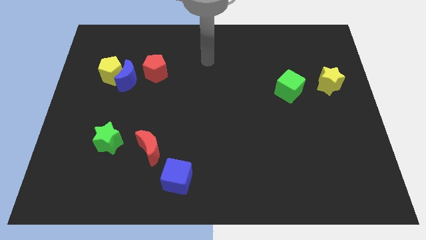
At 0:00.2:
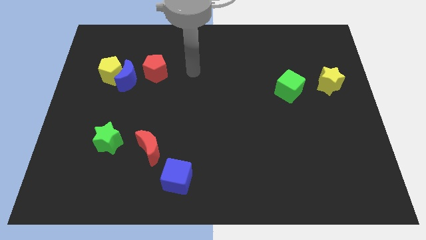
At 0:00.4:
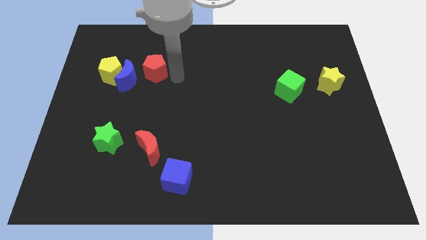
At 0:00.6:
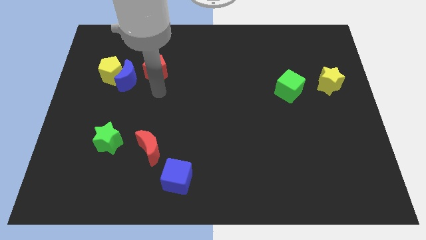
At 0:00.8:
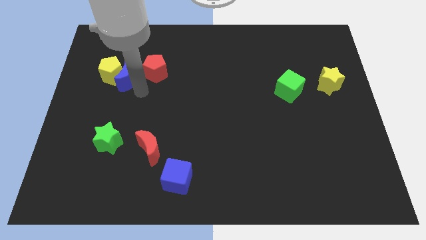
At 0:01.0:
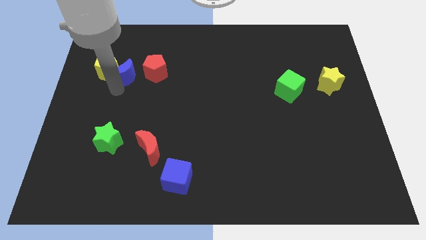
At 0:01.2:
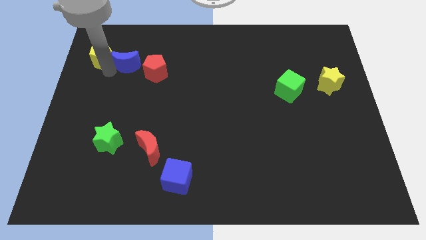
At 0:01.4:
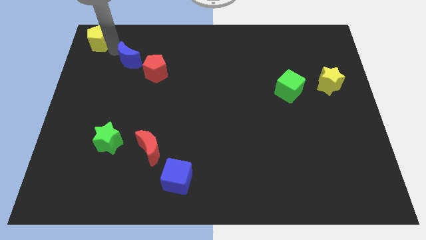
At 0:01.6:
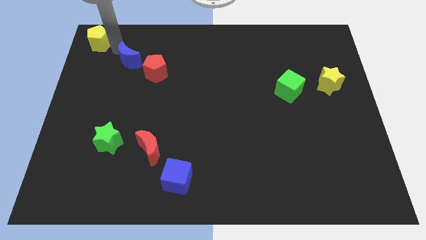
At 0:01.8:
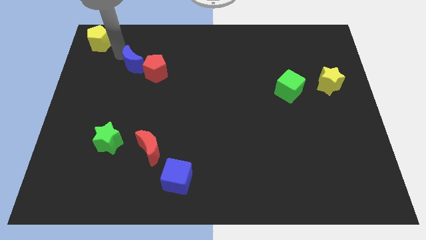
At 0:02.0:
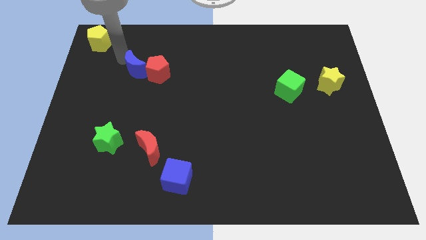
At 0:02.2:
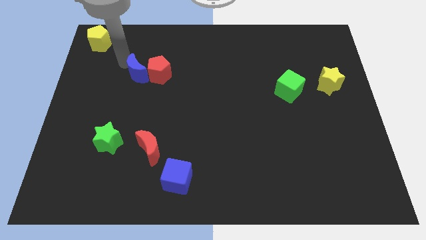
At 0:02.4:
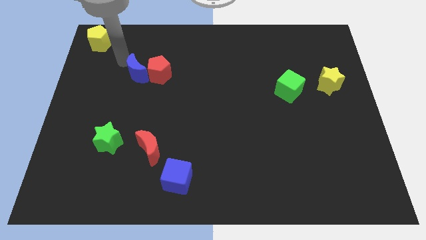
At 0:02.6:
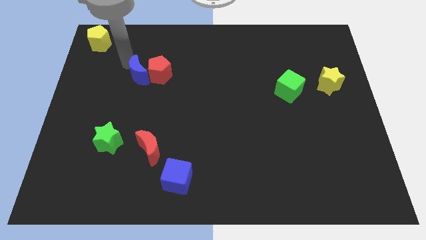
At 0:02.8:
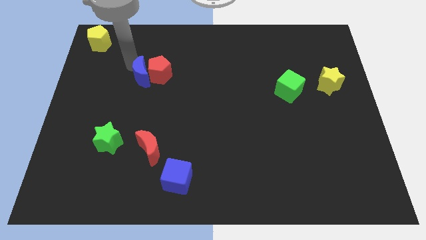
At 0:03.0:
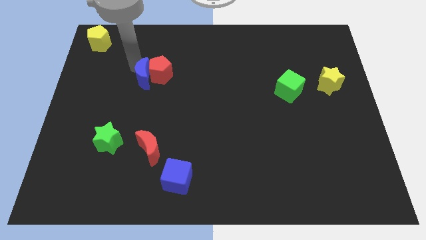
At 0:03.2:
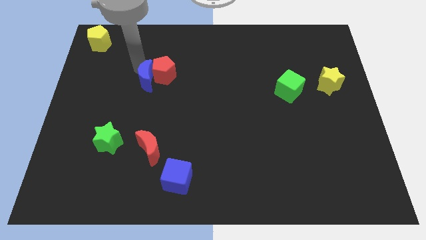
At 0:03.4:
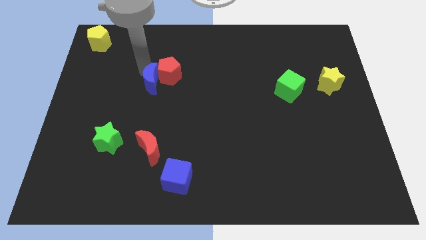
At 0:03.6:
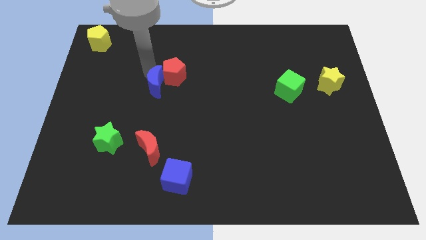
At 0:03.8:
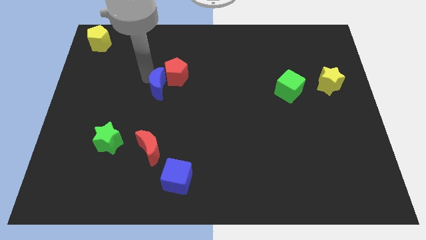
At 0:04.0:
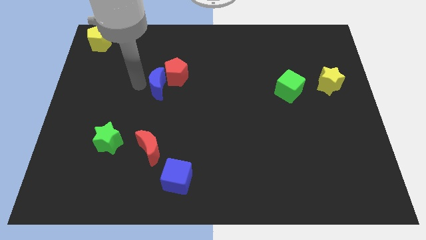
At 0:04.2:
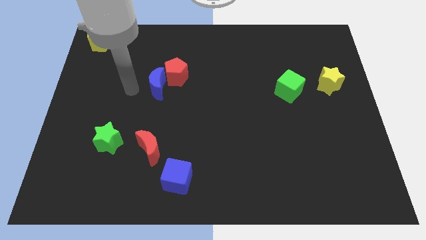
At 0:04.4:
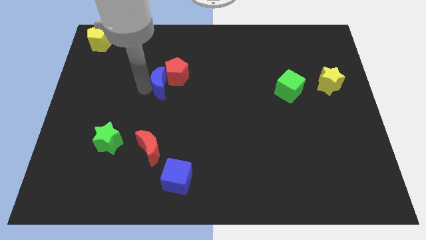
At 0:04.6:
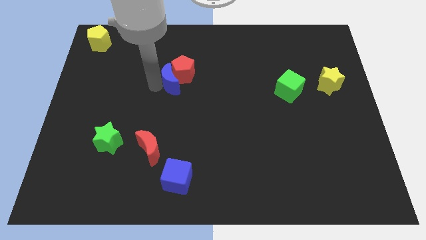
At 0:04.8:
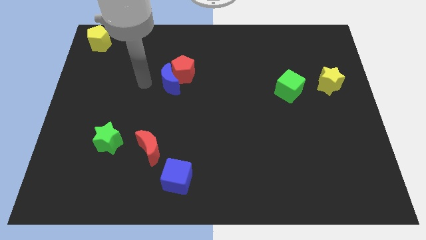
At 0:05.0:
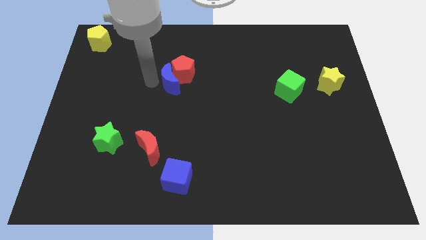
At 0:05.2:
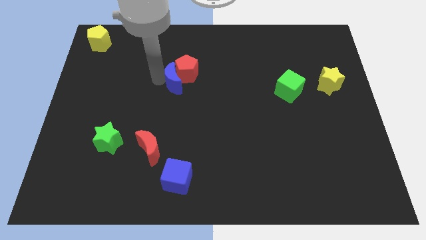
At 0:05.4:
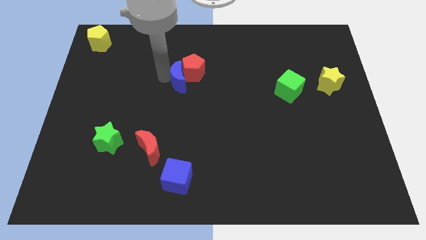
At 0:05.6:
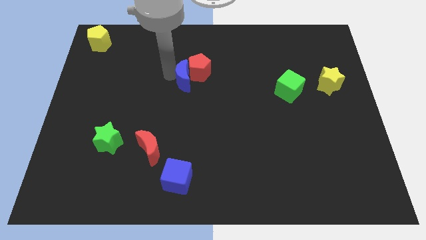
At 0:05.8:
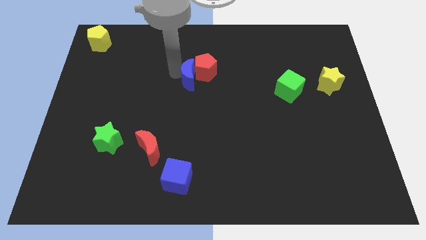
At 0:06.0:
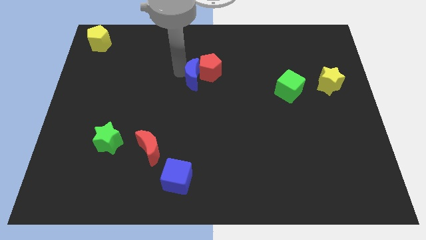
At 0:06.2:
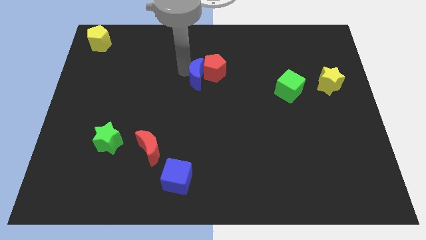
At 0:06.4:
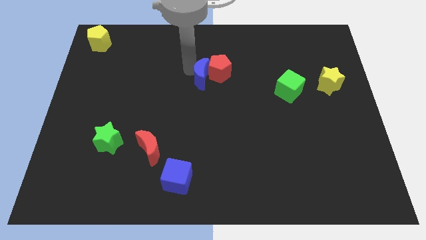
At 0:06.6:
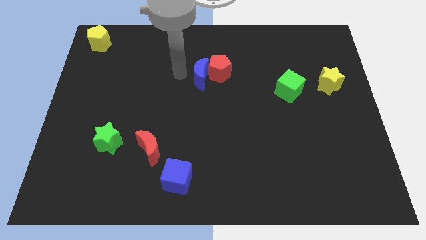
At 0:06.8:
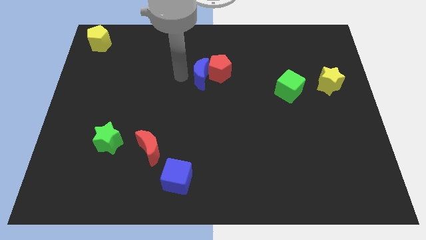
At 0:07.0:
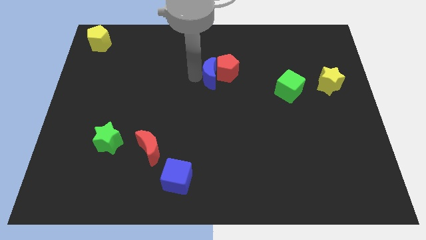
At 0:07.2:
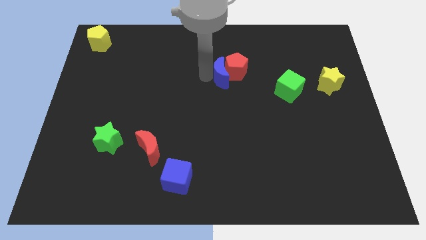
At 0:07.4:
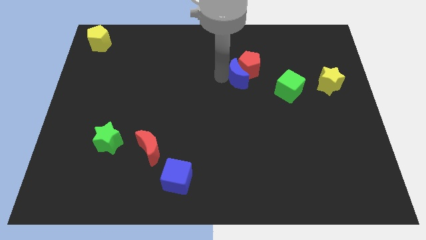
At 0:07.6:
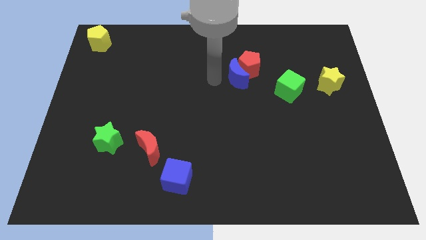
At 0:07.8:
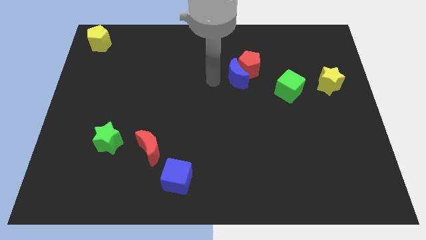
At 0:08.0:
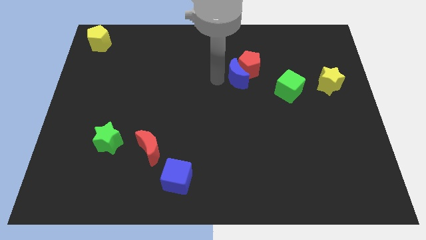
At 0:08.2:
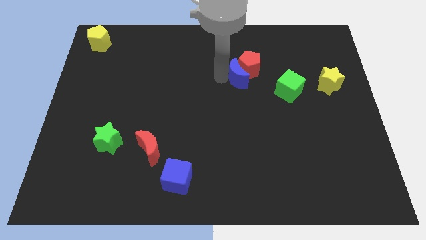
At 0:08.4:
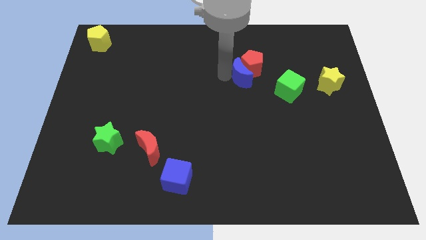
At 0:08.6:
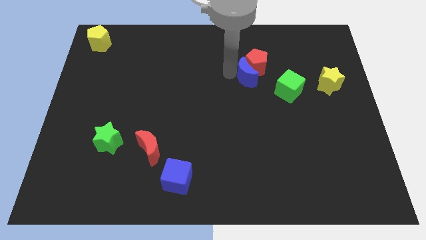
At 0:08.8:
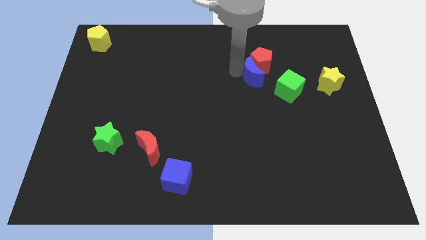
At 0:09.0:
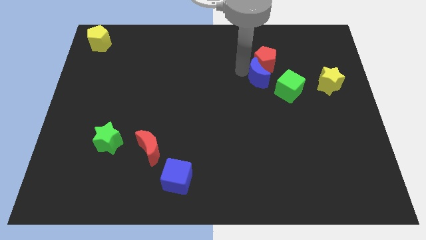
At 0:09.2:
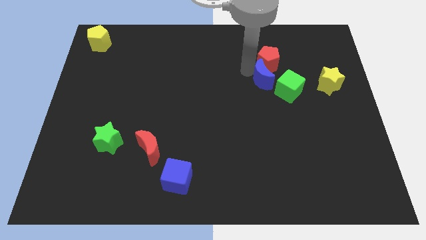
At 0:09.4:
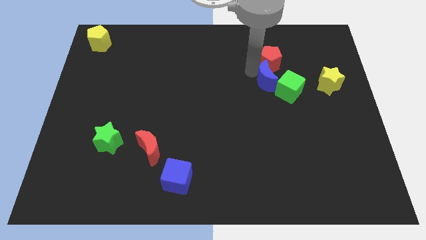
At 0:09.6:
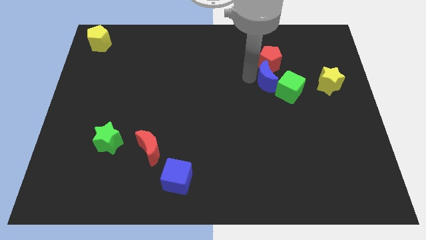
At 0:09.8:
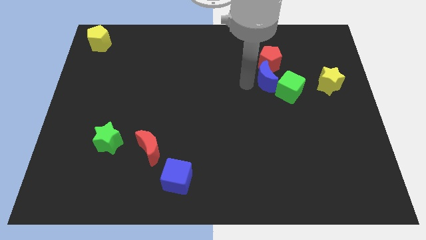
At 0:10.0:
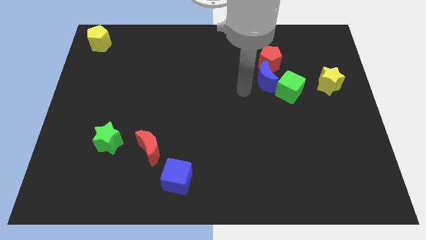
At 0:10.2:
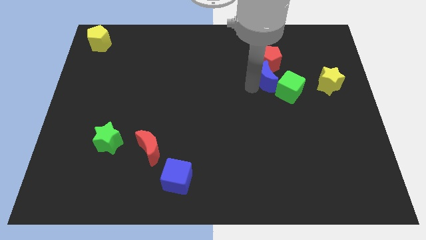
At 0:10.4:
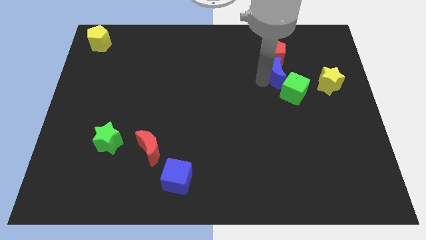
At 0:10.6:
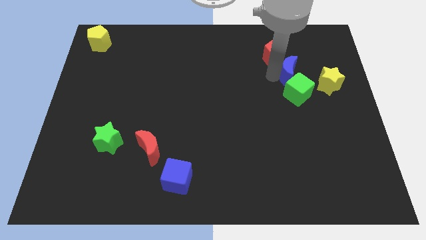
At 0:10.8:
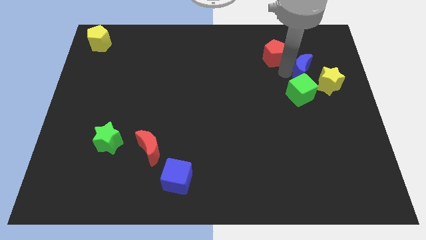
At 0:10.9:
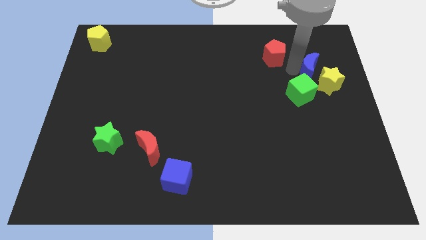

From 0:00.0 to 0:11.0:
move the blue moon close to the yellow star

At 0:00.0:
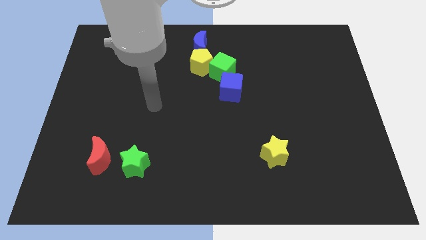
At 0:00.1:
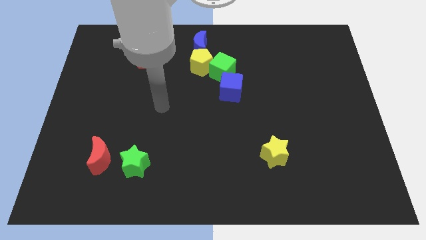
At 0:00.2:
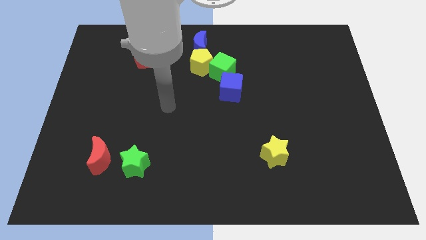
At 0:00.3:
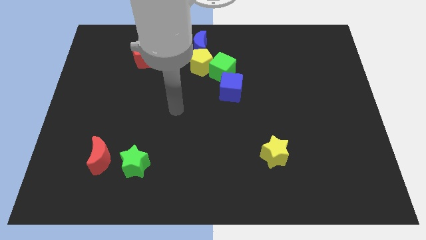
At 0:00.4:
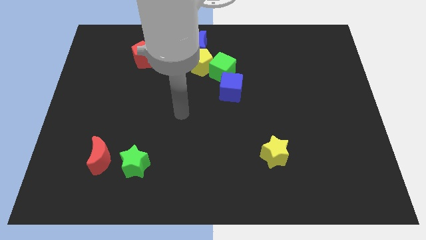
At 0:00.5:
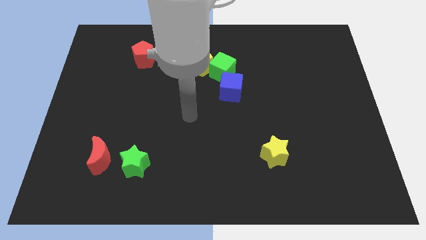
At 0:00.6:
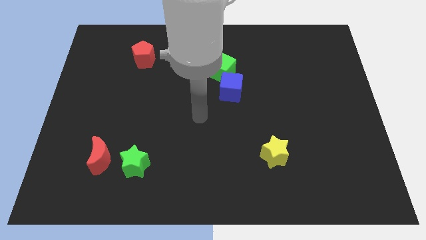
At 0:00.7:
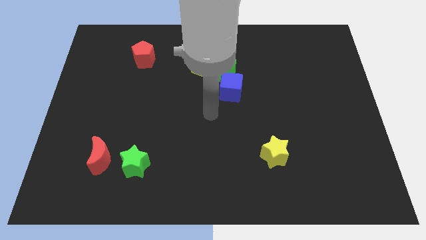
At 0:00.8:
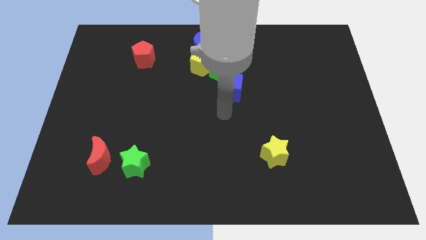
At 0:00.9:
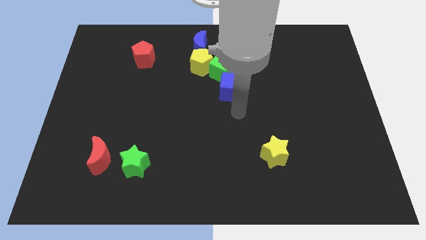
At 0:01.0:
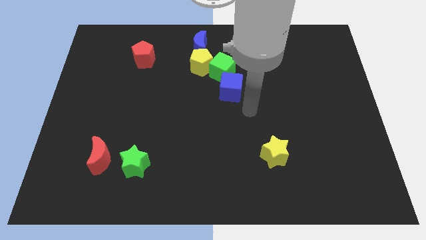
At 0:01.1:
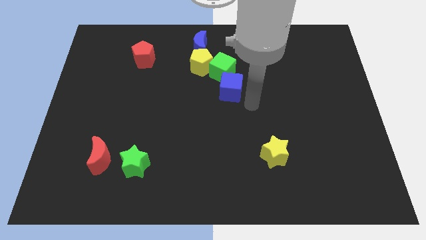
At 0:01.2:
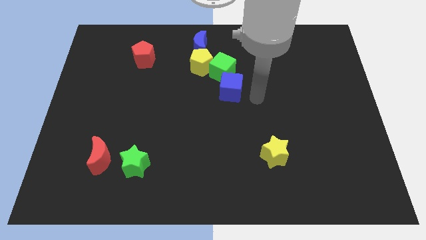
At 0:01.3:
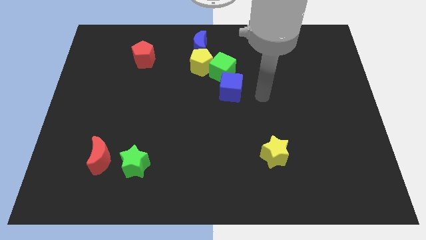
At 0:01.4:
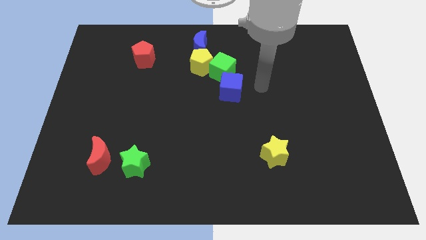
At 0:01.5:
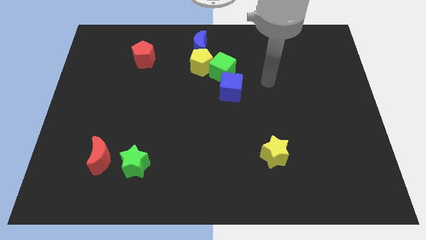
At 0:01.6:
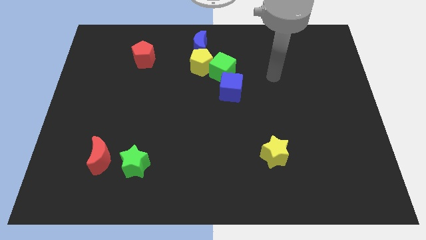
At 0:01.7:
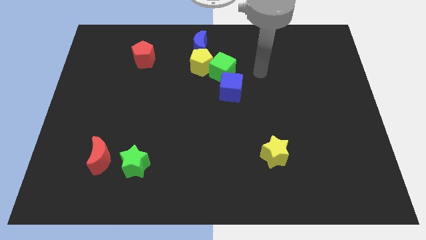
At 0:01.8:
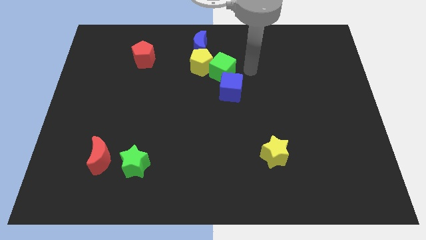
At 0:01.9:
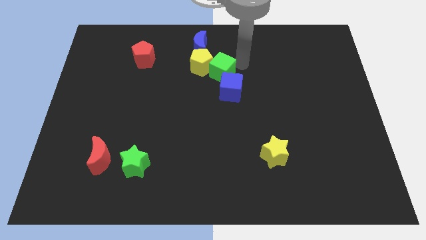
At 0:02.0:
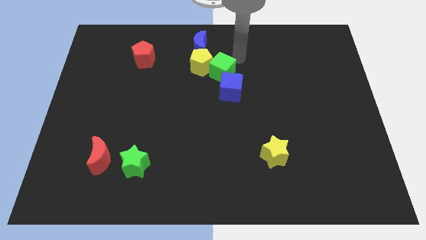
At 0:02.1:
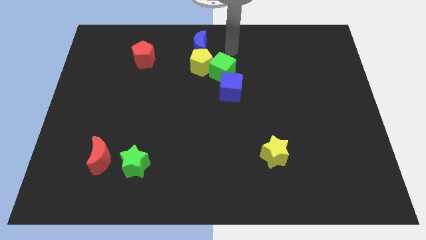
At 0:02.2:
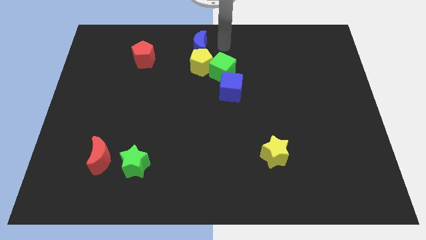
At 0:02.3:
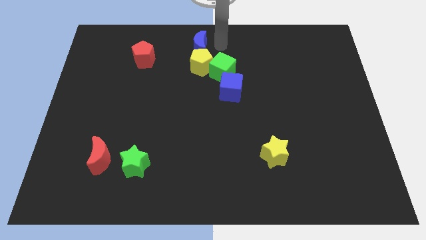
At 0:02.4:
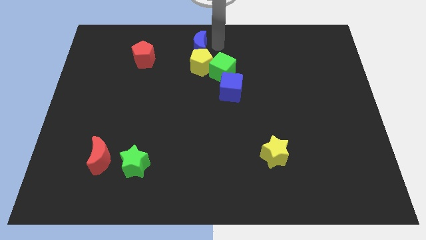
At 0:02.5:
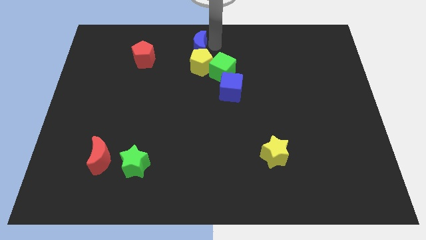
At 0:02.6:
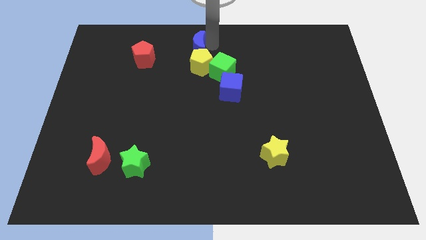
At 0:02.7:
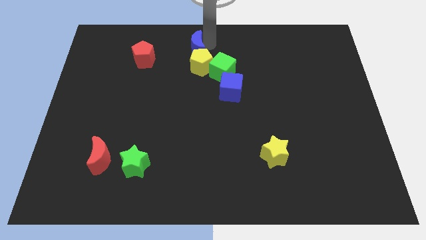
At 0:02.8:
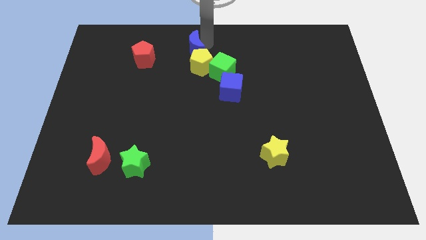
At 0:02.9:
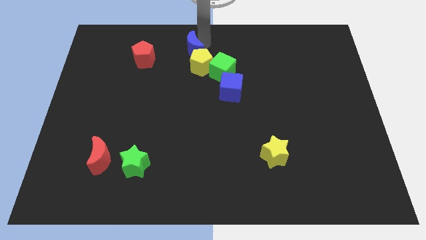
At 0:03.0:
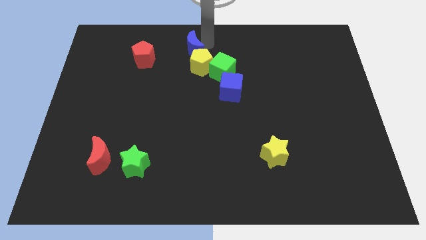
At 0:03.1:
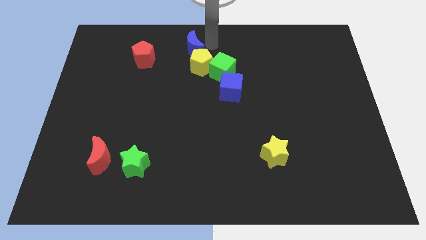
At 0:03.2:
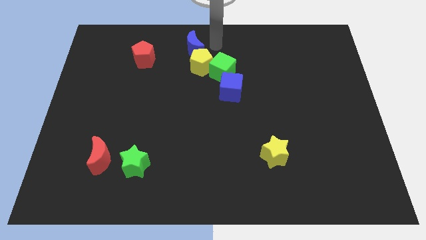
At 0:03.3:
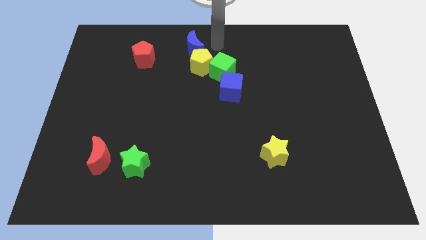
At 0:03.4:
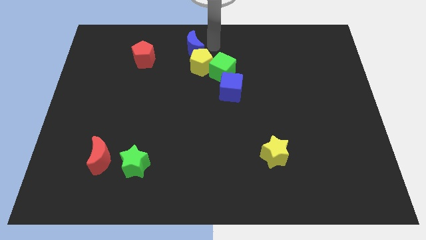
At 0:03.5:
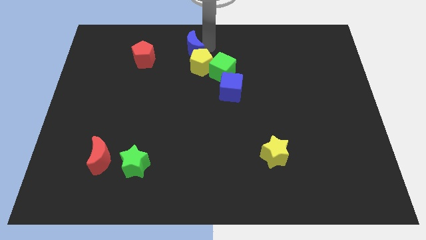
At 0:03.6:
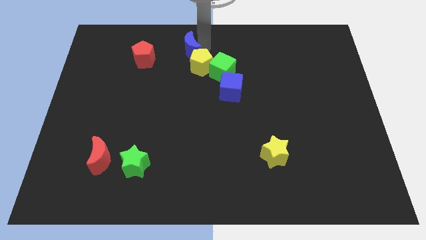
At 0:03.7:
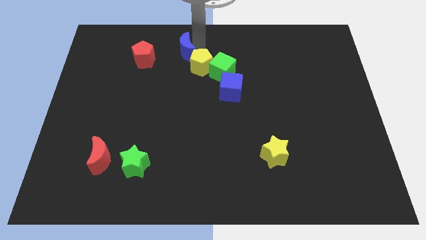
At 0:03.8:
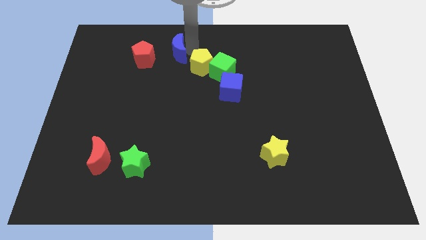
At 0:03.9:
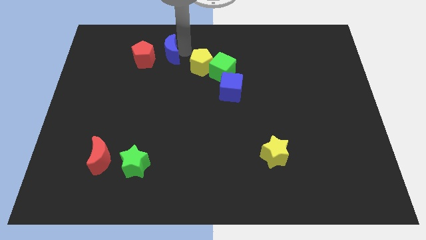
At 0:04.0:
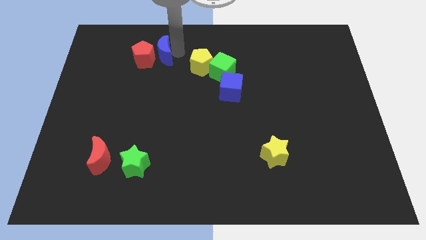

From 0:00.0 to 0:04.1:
put the blue moon towards the red pentagon
